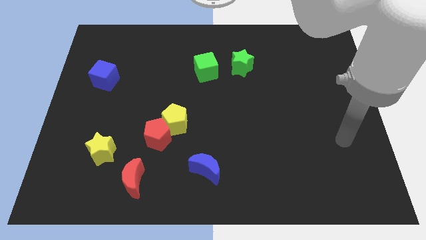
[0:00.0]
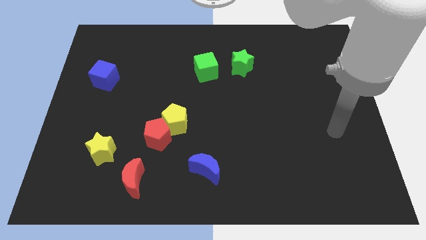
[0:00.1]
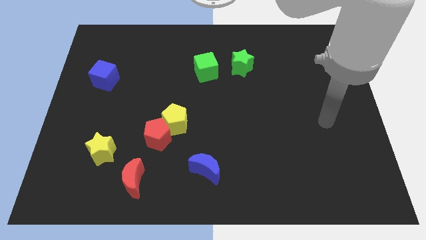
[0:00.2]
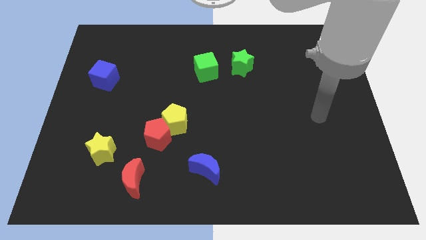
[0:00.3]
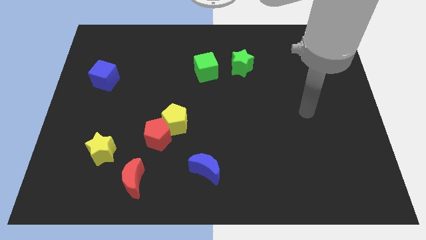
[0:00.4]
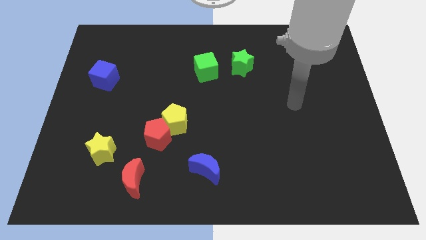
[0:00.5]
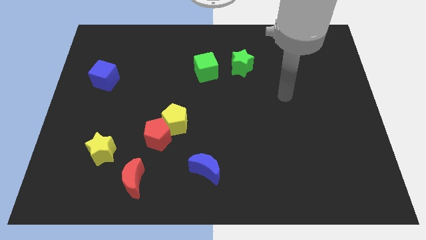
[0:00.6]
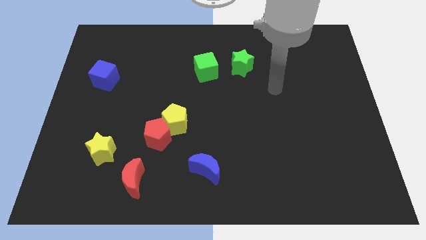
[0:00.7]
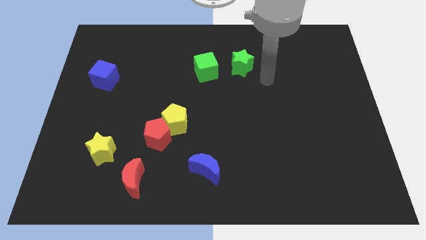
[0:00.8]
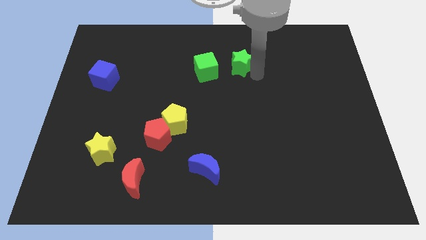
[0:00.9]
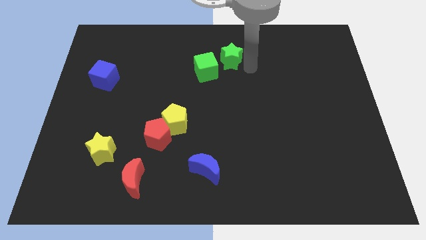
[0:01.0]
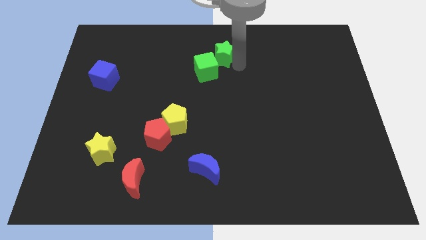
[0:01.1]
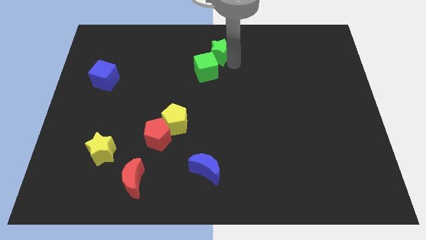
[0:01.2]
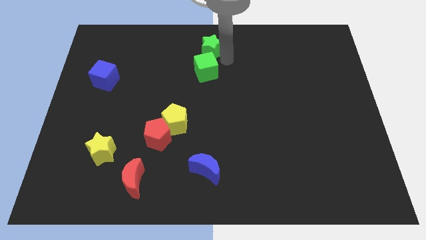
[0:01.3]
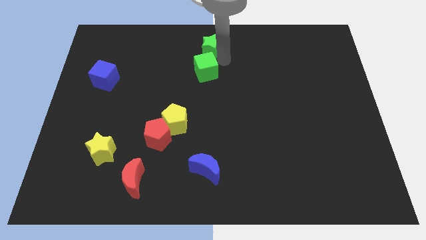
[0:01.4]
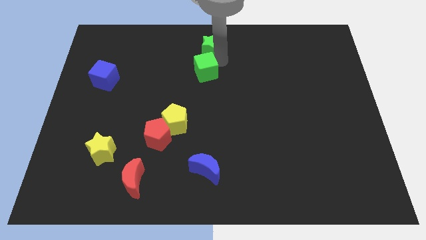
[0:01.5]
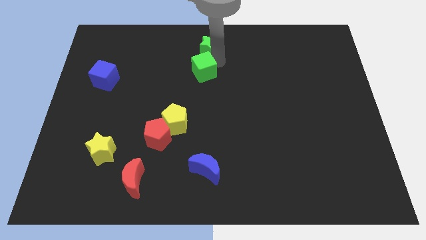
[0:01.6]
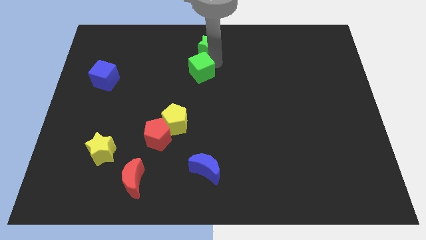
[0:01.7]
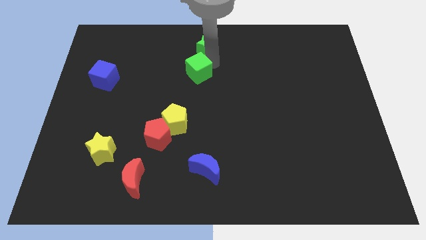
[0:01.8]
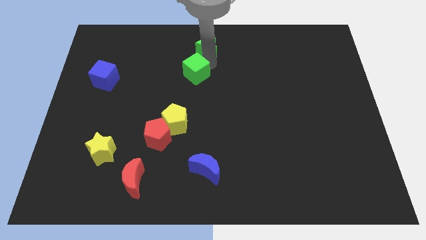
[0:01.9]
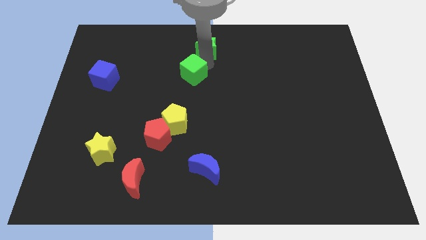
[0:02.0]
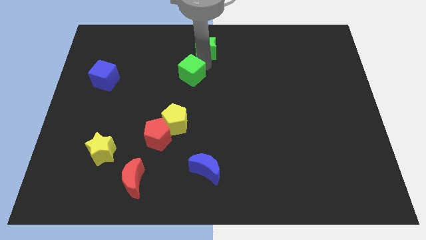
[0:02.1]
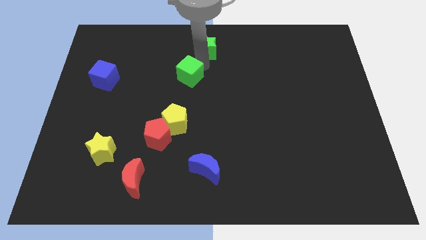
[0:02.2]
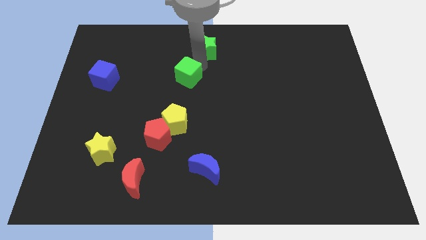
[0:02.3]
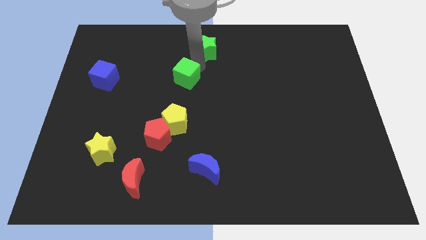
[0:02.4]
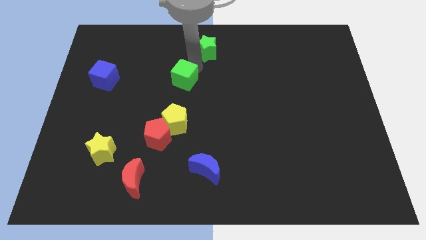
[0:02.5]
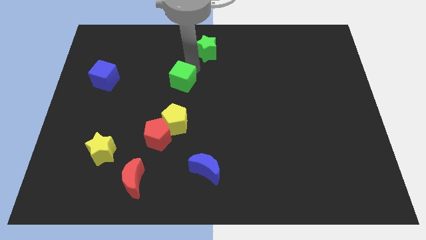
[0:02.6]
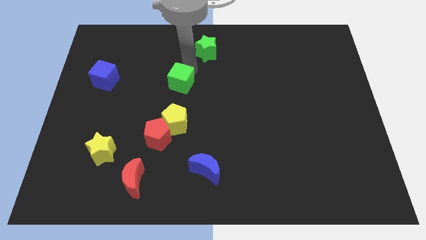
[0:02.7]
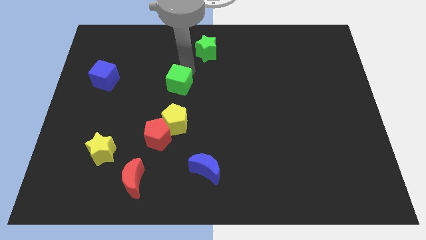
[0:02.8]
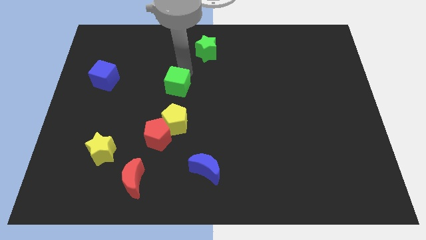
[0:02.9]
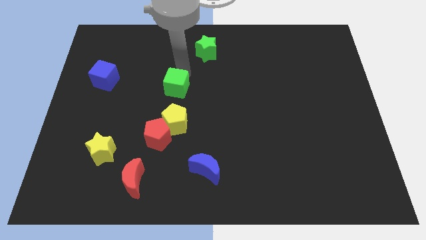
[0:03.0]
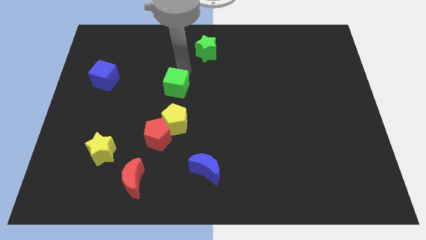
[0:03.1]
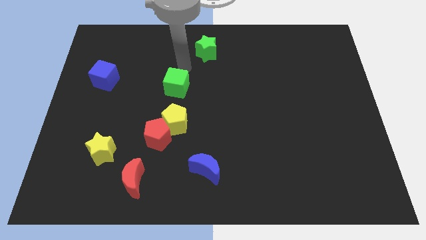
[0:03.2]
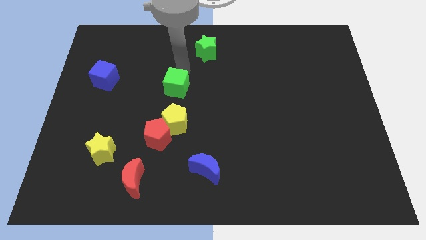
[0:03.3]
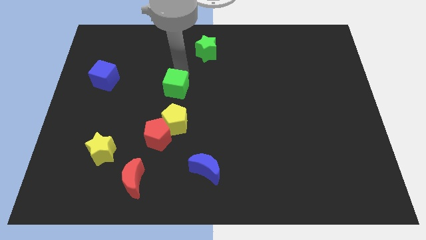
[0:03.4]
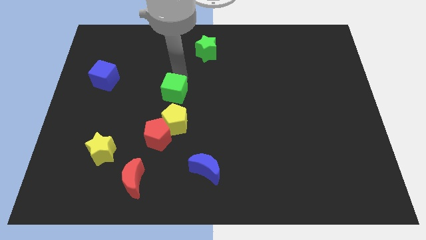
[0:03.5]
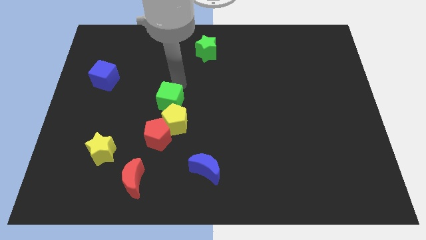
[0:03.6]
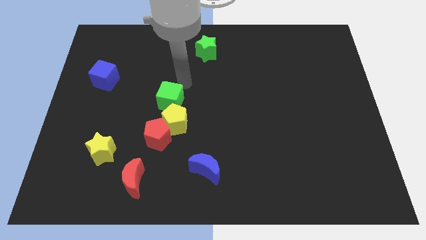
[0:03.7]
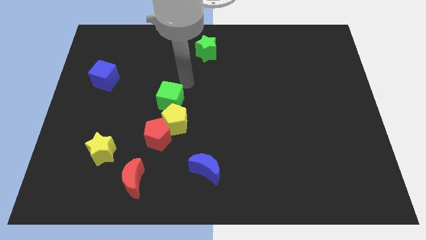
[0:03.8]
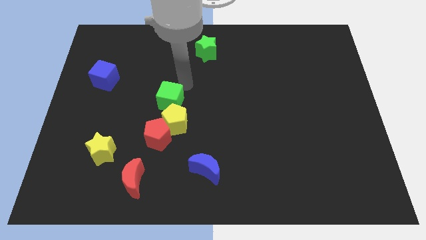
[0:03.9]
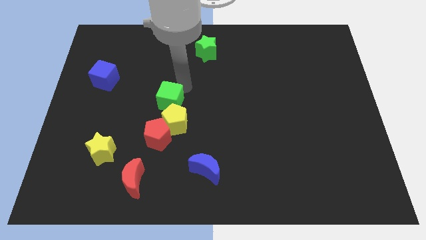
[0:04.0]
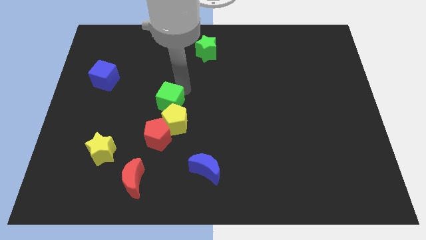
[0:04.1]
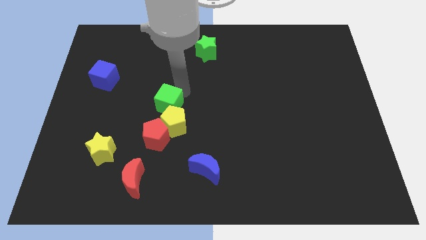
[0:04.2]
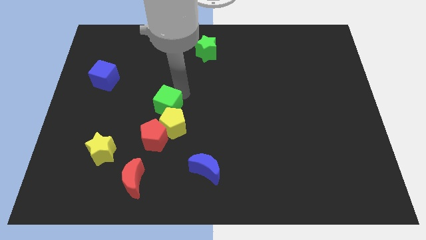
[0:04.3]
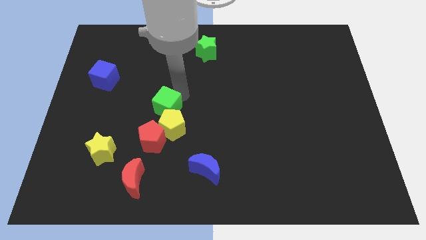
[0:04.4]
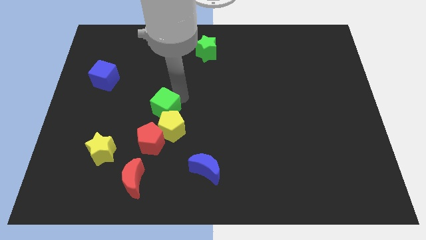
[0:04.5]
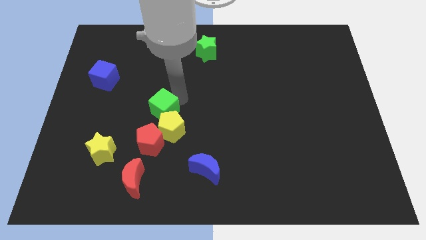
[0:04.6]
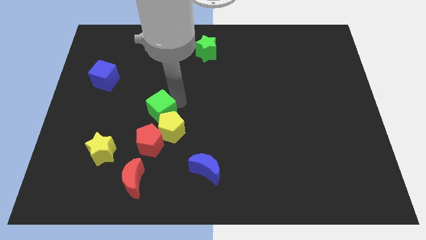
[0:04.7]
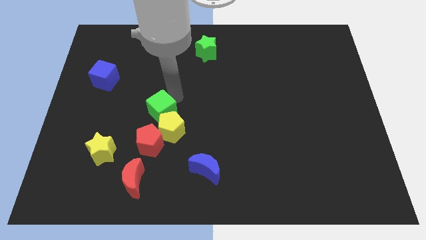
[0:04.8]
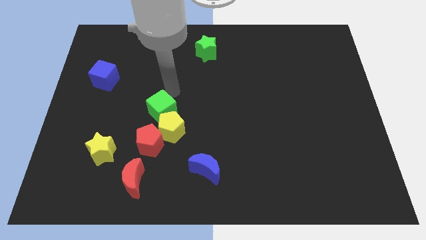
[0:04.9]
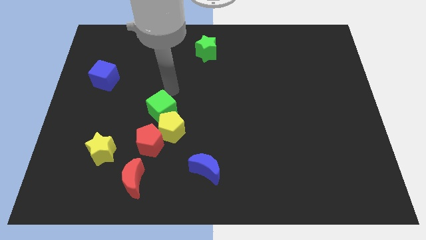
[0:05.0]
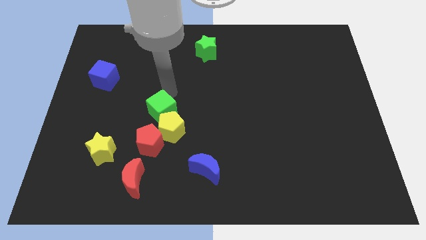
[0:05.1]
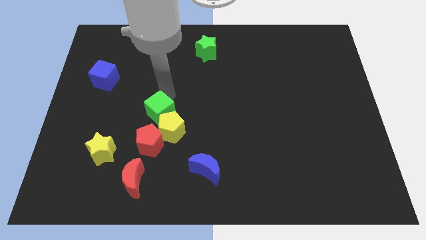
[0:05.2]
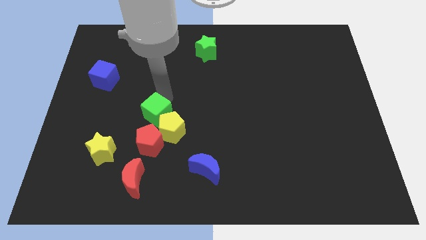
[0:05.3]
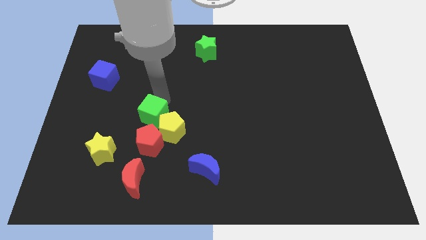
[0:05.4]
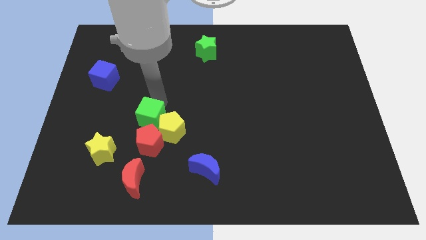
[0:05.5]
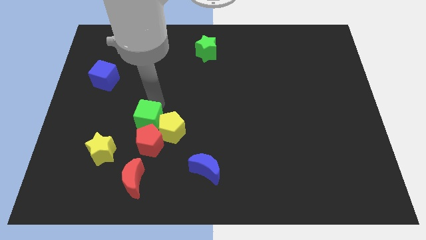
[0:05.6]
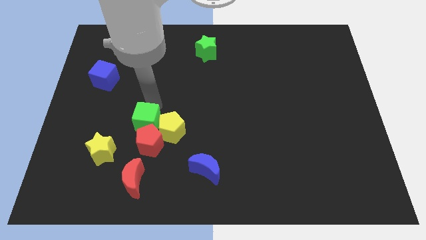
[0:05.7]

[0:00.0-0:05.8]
push the green cube towards the red pentagon

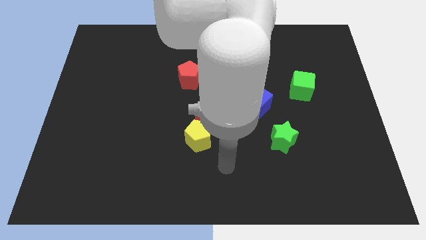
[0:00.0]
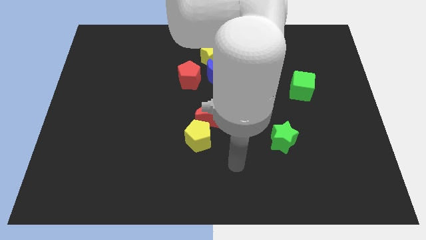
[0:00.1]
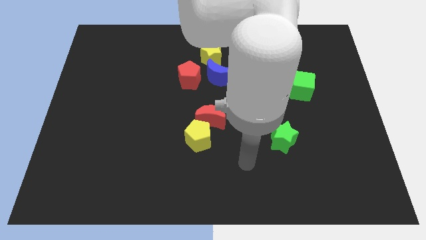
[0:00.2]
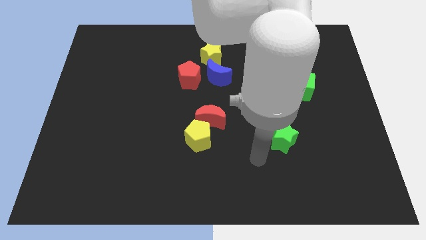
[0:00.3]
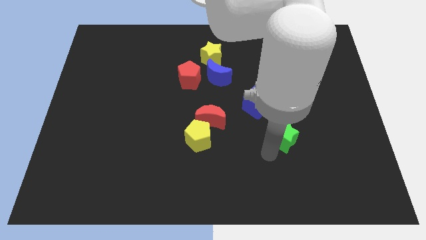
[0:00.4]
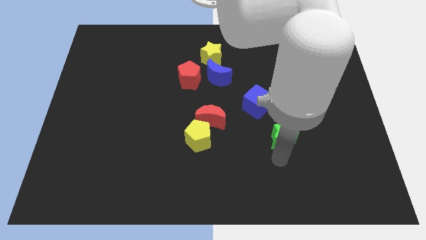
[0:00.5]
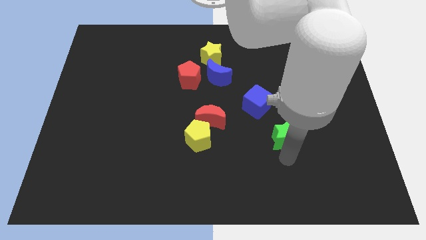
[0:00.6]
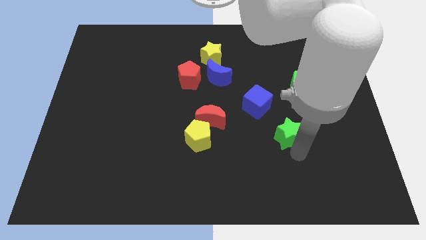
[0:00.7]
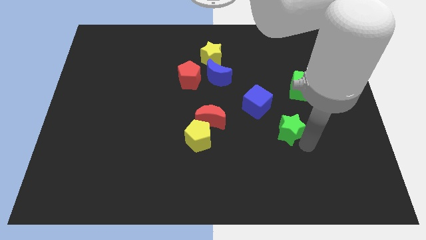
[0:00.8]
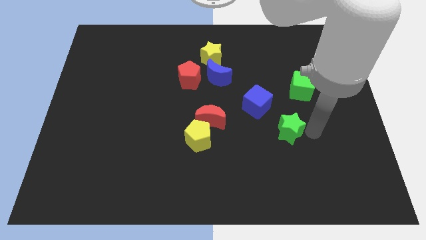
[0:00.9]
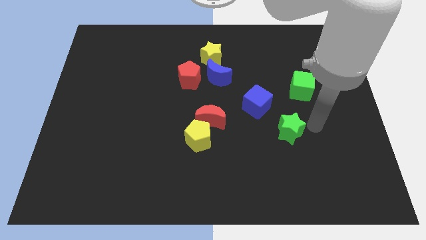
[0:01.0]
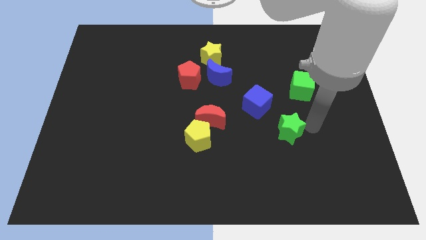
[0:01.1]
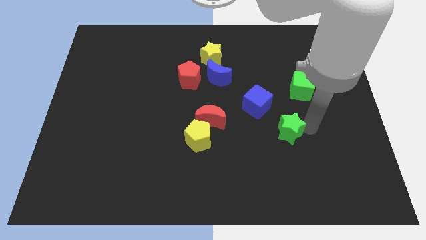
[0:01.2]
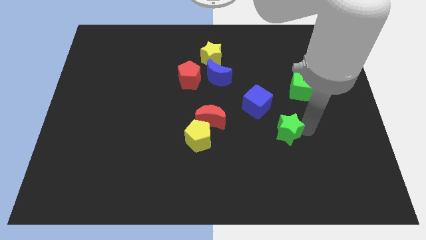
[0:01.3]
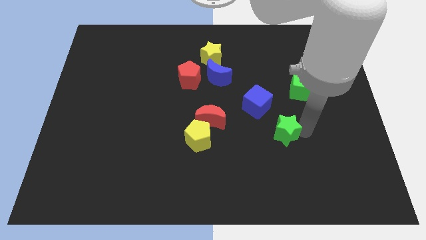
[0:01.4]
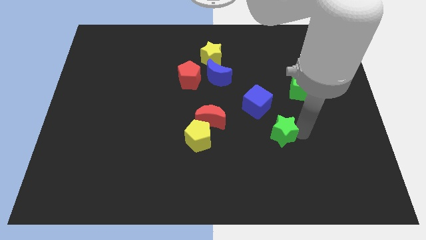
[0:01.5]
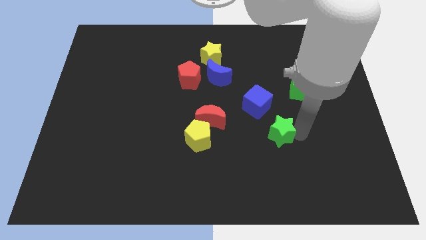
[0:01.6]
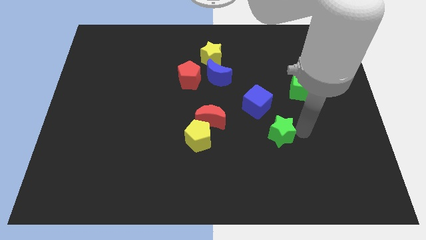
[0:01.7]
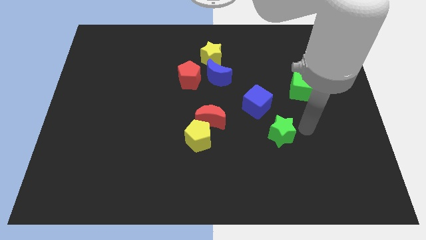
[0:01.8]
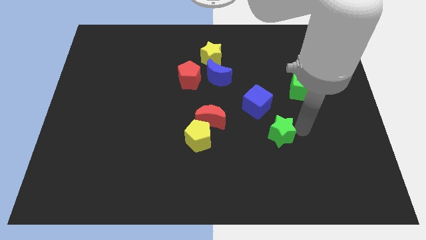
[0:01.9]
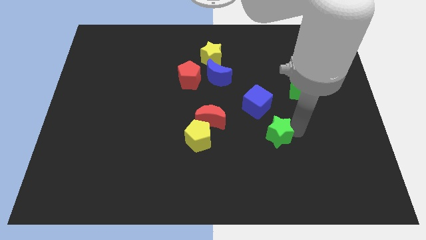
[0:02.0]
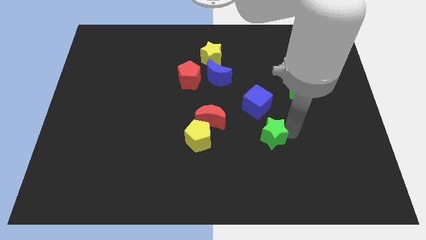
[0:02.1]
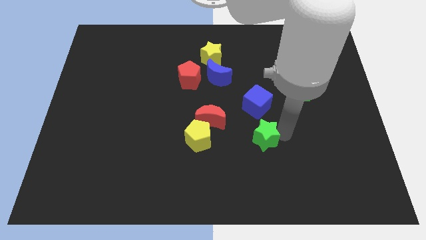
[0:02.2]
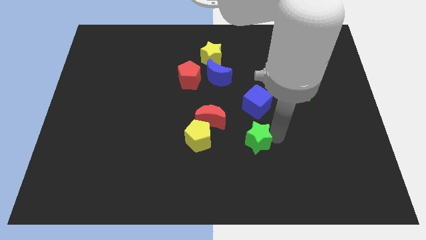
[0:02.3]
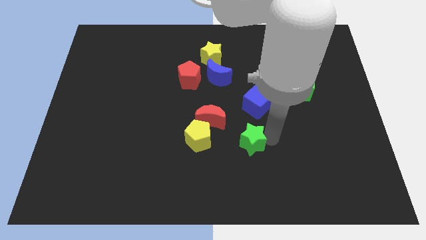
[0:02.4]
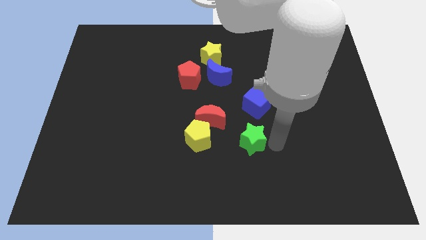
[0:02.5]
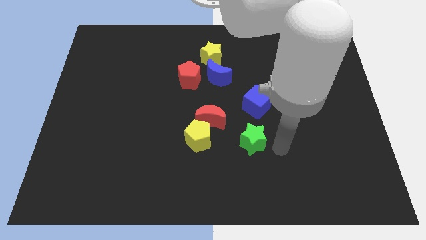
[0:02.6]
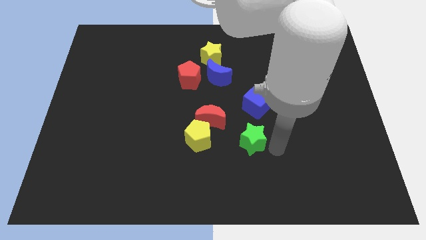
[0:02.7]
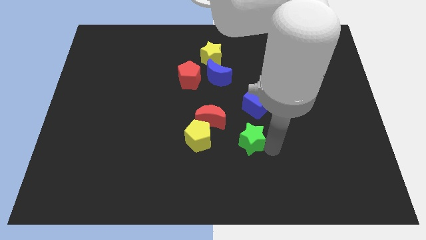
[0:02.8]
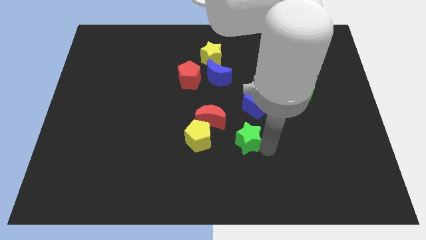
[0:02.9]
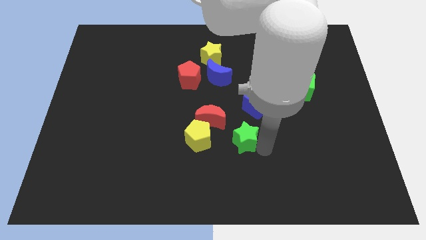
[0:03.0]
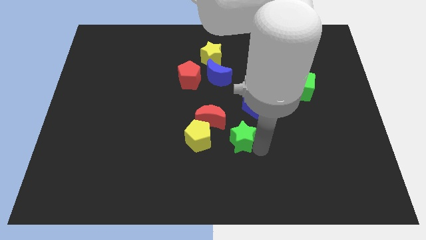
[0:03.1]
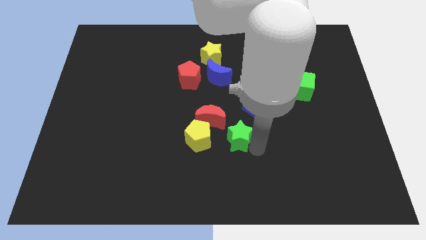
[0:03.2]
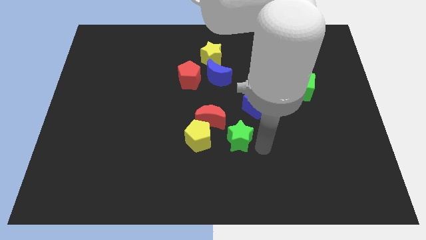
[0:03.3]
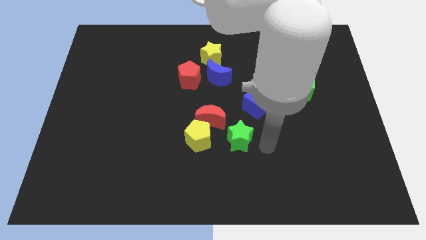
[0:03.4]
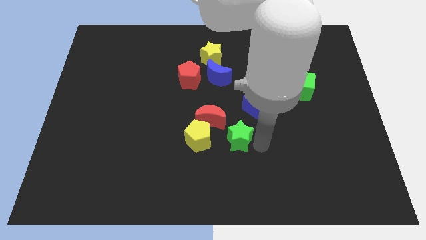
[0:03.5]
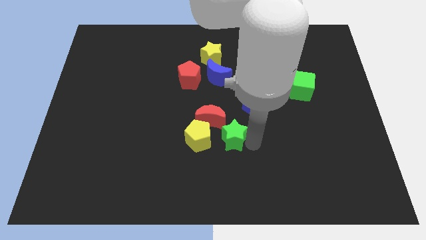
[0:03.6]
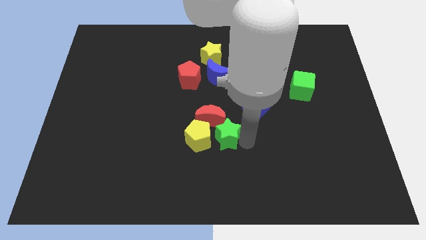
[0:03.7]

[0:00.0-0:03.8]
move the green star towards the yellow pentagon
